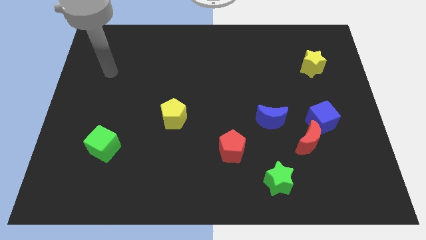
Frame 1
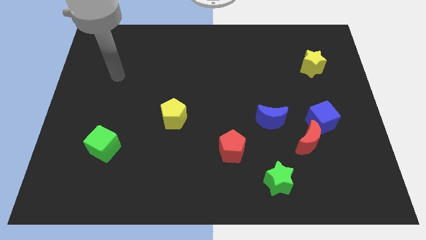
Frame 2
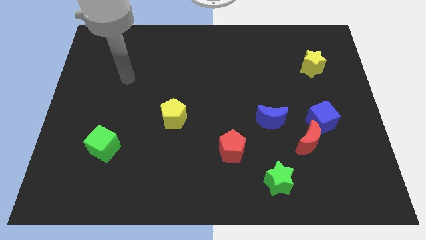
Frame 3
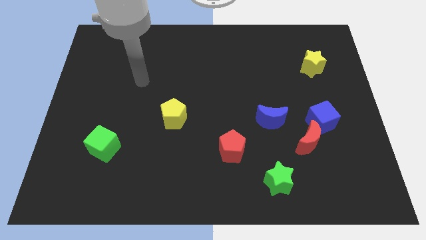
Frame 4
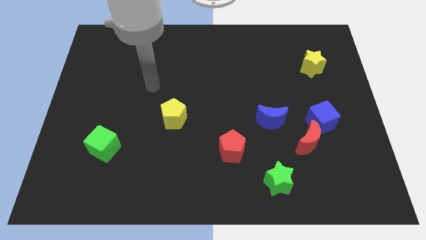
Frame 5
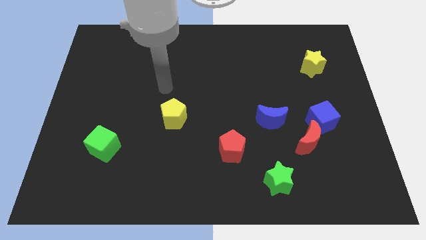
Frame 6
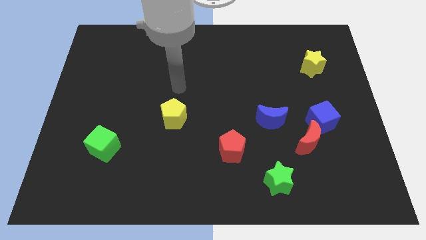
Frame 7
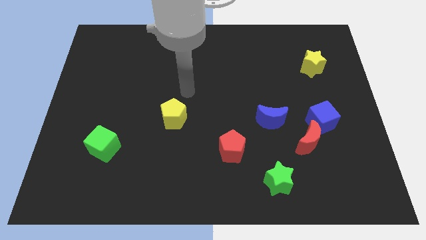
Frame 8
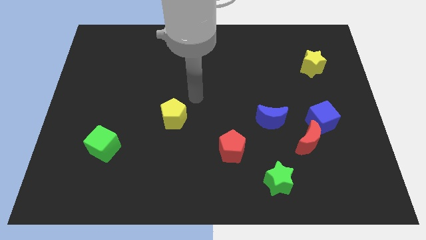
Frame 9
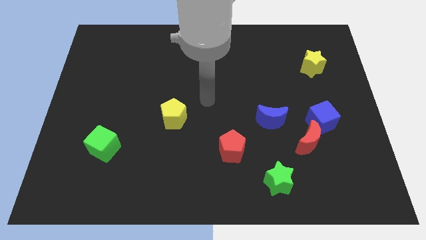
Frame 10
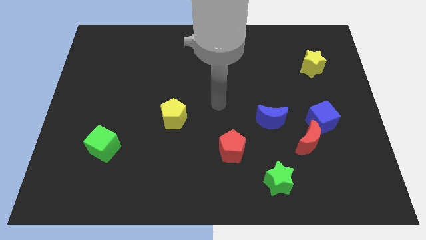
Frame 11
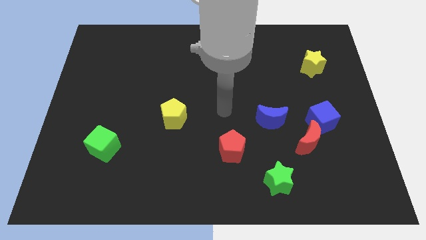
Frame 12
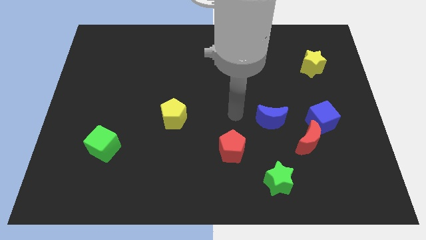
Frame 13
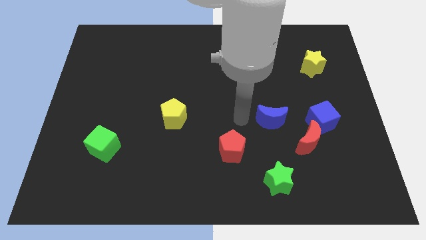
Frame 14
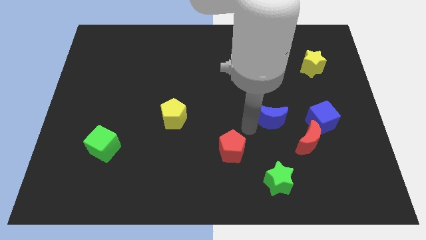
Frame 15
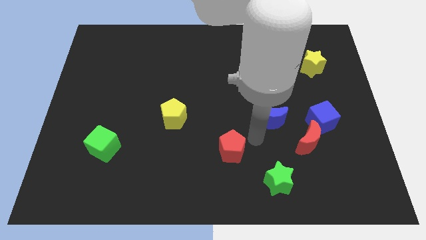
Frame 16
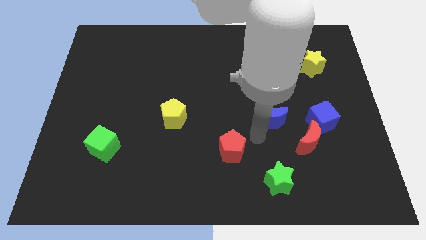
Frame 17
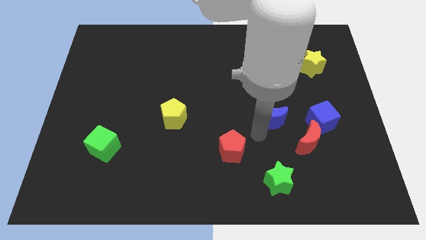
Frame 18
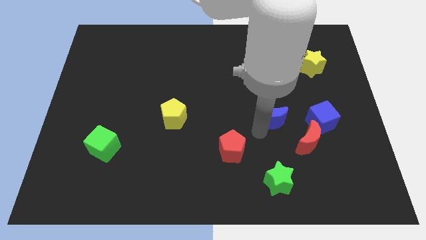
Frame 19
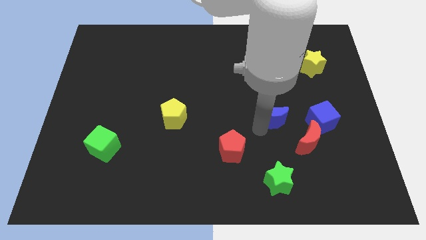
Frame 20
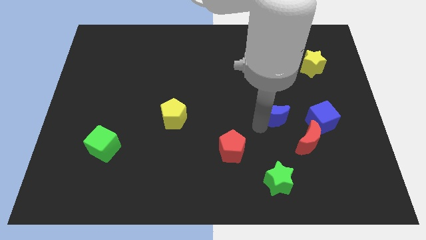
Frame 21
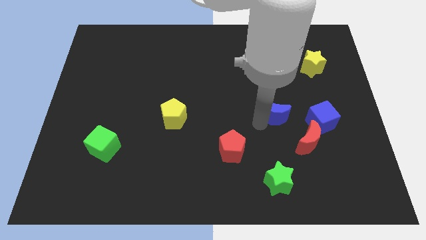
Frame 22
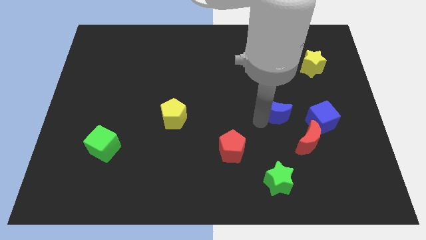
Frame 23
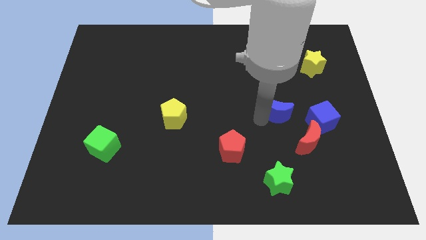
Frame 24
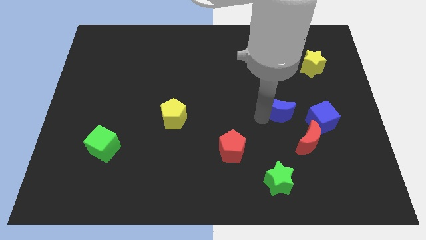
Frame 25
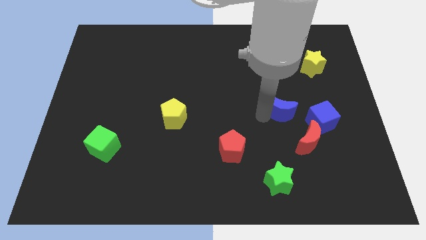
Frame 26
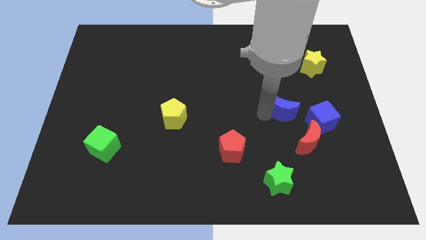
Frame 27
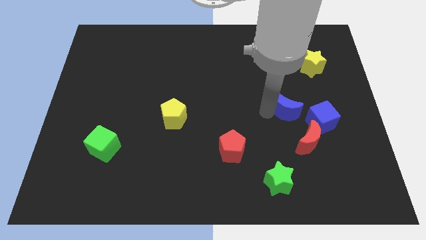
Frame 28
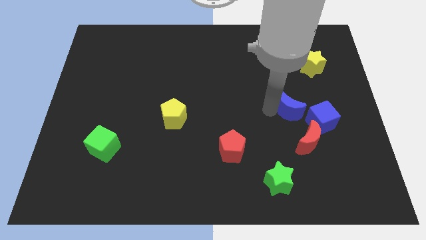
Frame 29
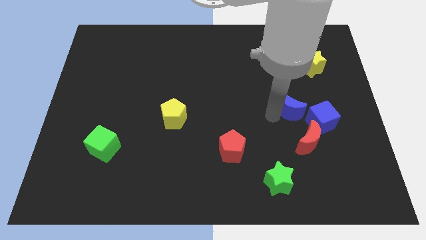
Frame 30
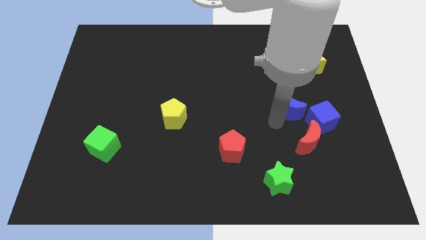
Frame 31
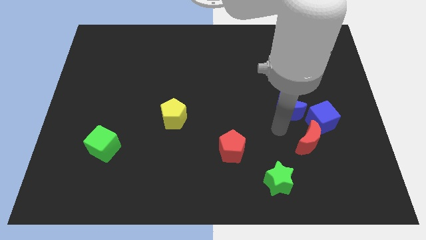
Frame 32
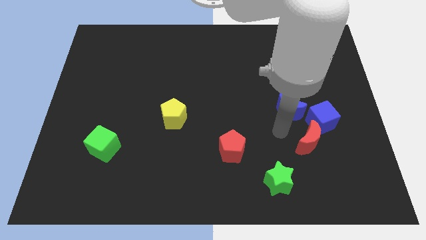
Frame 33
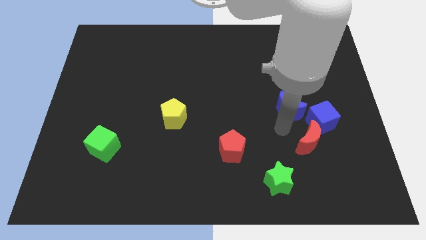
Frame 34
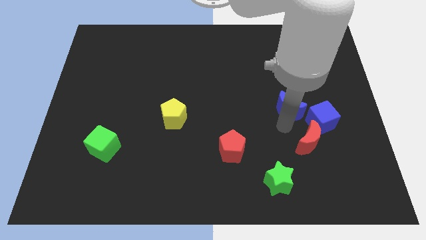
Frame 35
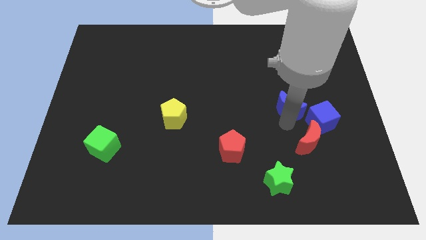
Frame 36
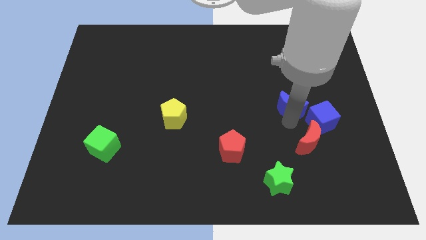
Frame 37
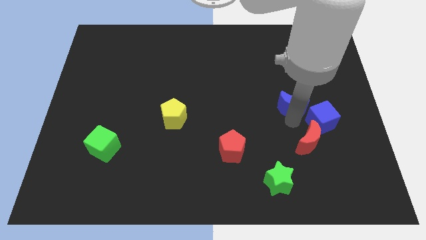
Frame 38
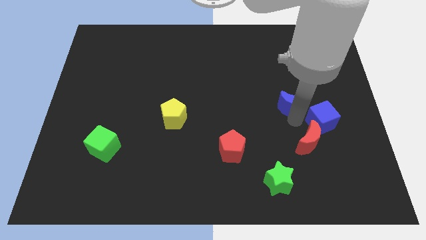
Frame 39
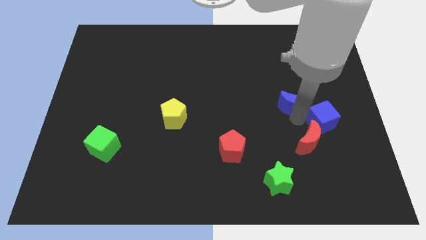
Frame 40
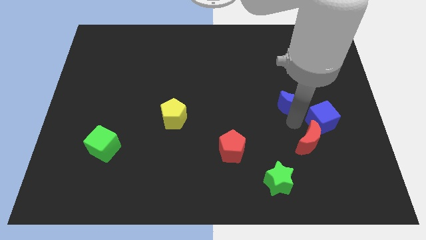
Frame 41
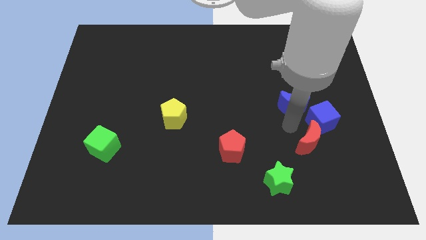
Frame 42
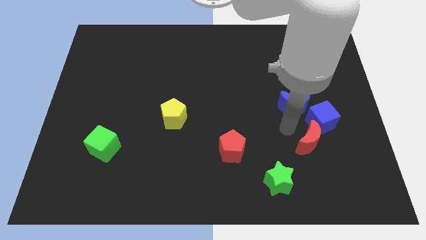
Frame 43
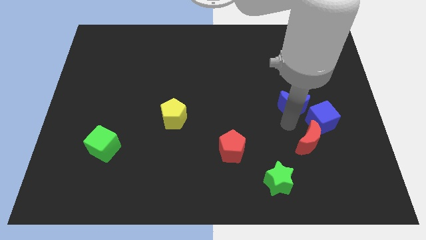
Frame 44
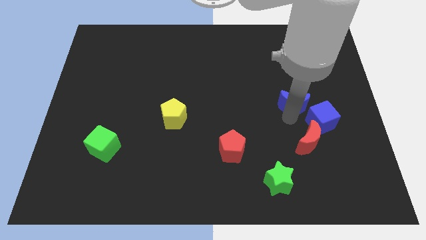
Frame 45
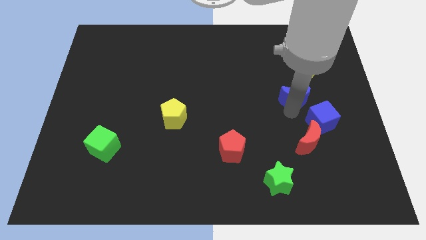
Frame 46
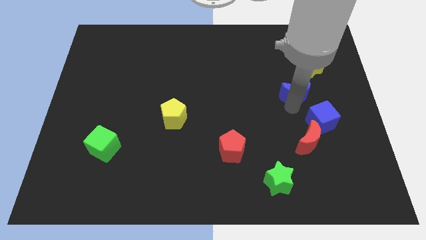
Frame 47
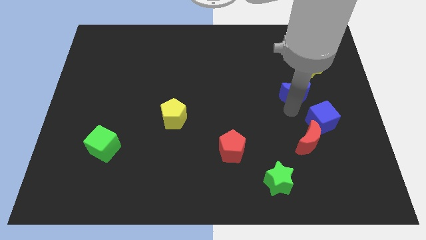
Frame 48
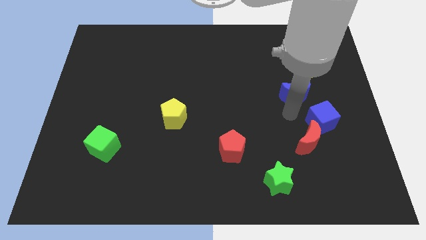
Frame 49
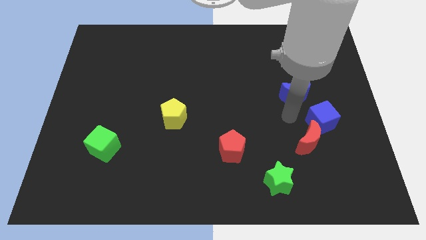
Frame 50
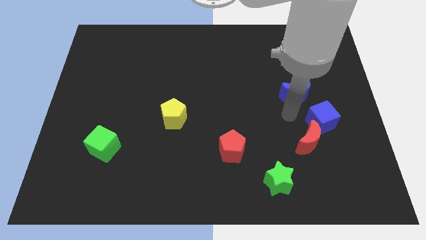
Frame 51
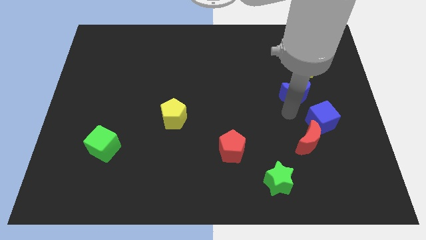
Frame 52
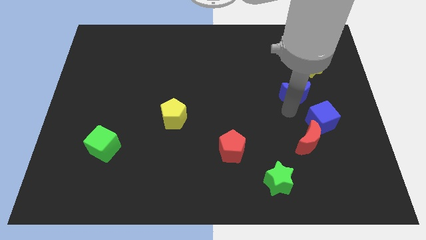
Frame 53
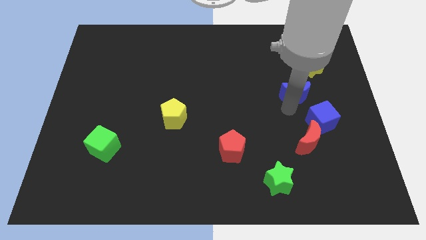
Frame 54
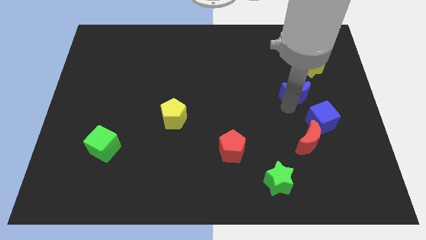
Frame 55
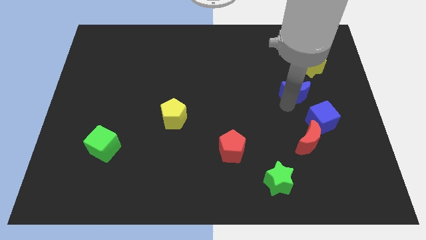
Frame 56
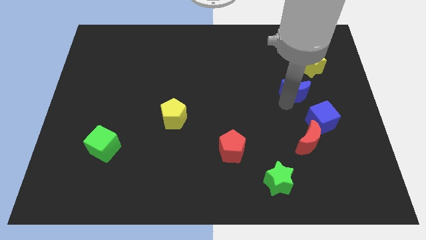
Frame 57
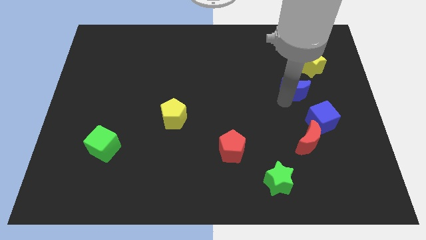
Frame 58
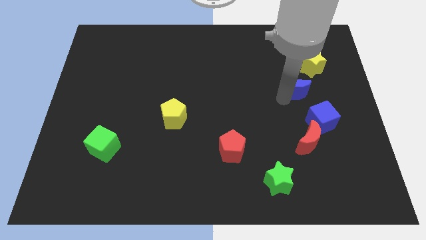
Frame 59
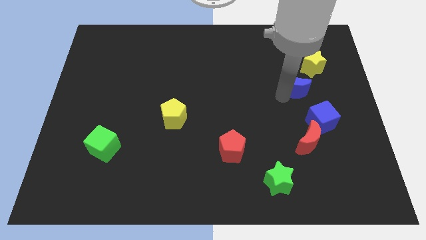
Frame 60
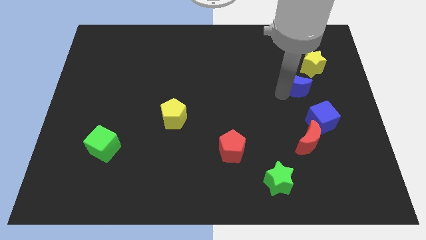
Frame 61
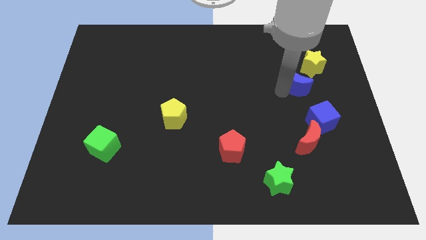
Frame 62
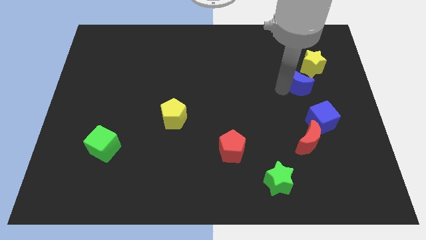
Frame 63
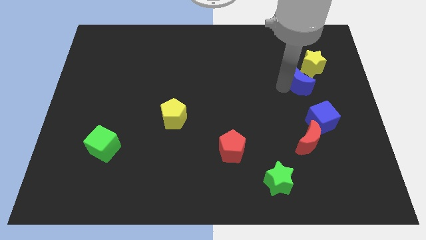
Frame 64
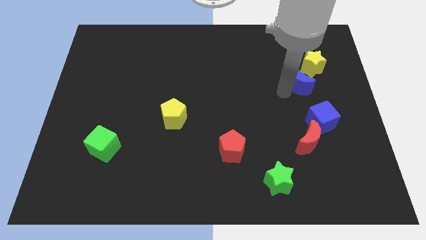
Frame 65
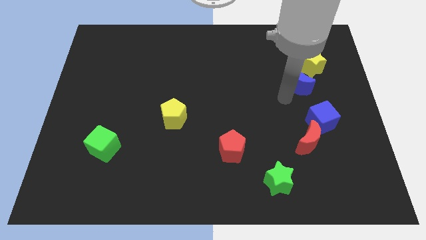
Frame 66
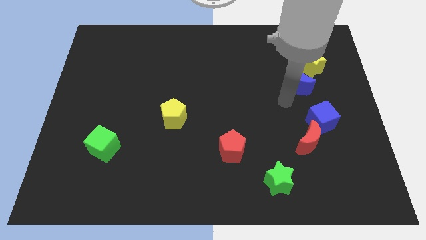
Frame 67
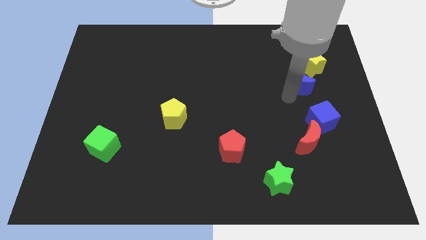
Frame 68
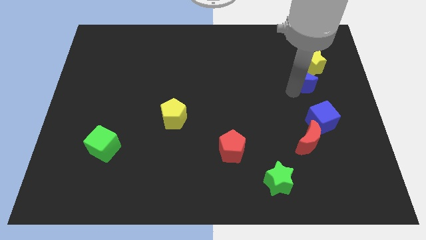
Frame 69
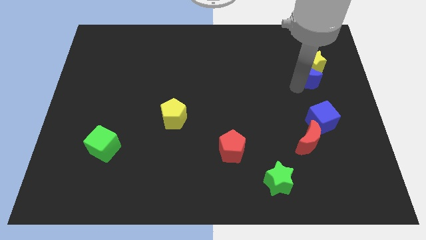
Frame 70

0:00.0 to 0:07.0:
slide the blue moon close to the yellow star

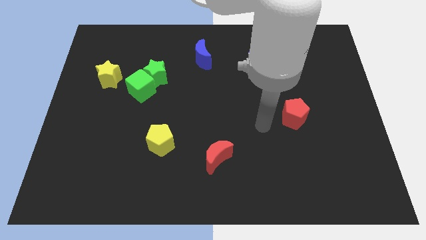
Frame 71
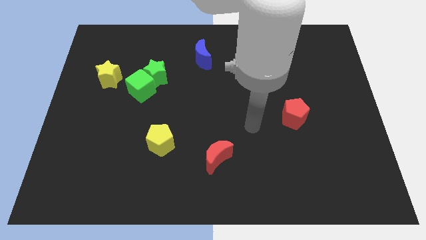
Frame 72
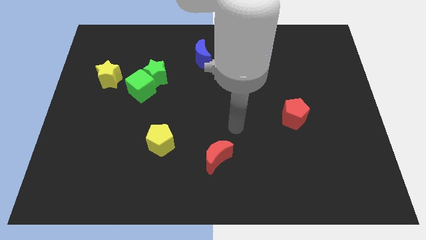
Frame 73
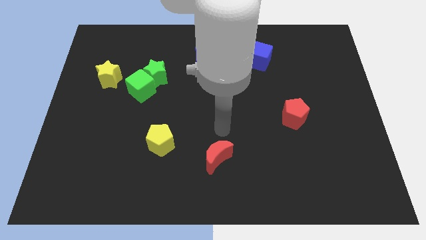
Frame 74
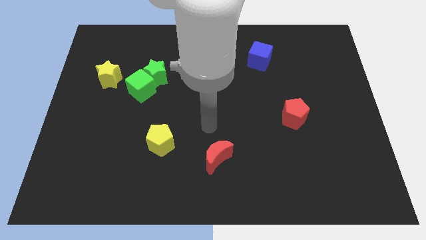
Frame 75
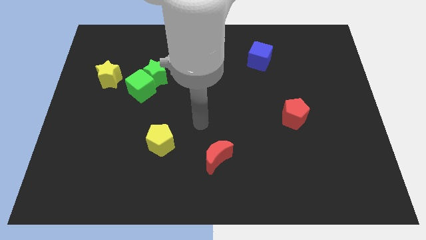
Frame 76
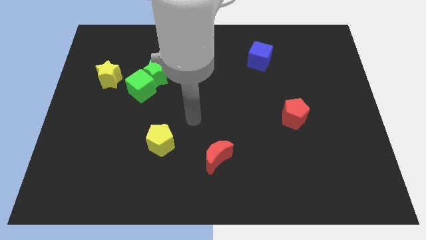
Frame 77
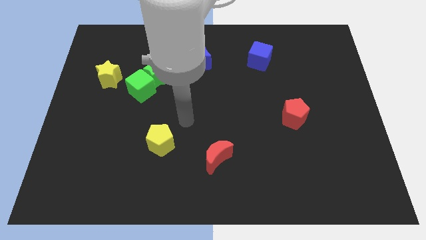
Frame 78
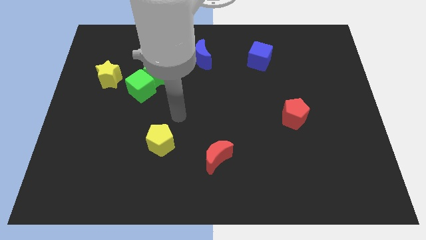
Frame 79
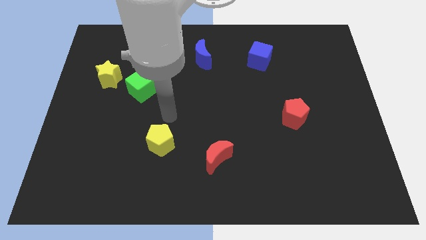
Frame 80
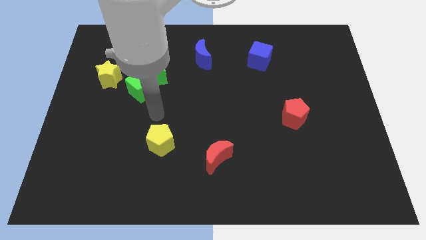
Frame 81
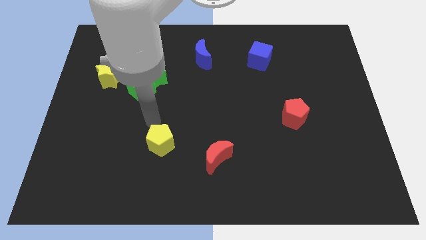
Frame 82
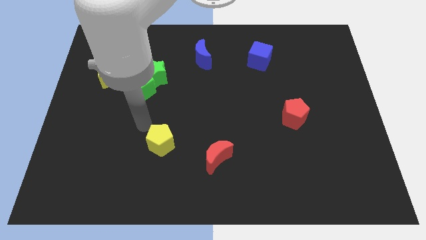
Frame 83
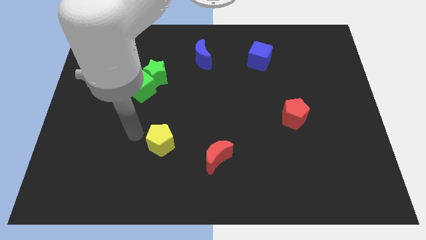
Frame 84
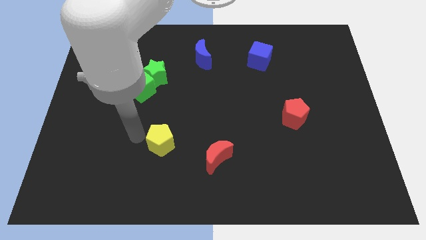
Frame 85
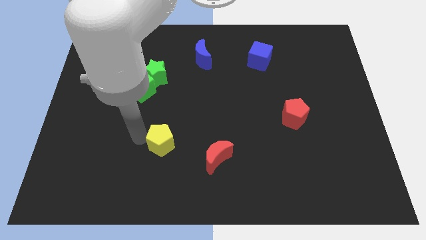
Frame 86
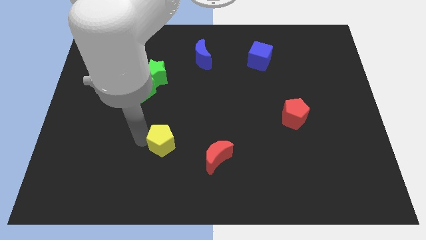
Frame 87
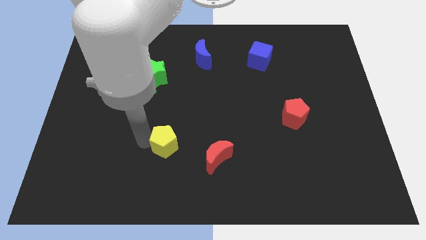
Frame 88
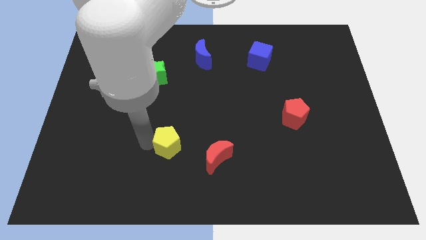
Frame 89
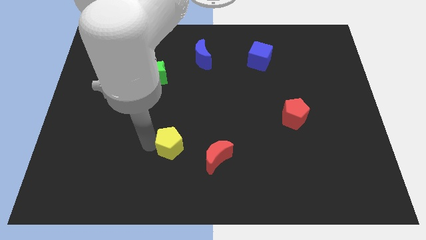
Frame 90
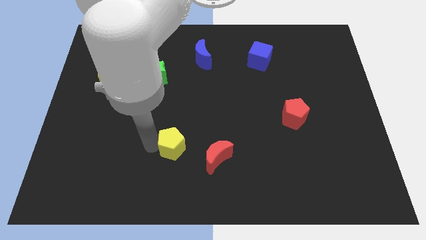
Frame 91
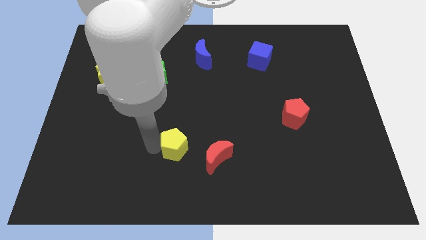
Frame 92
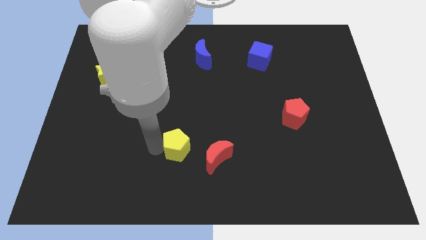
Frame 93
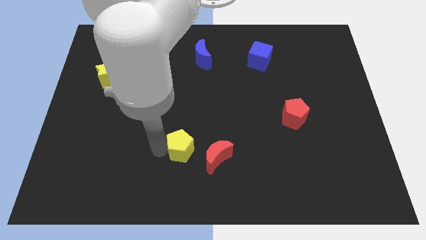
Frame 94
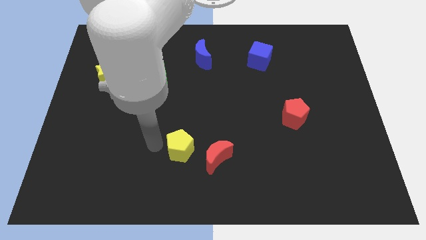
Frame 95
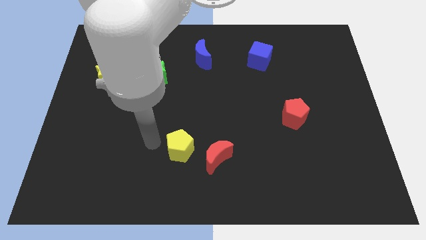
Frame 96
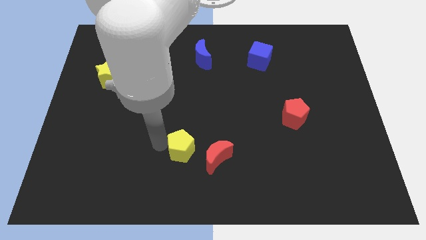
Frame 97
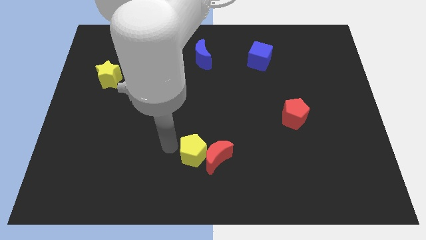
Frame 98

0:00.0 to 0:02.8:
push the yellow pentagon to the red moon
